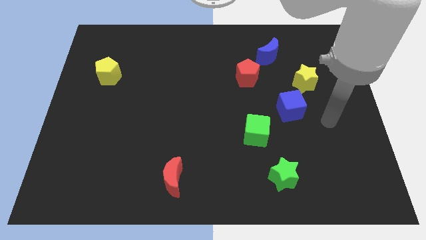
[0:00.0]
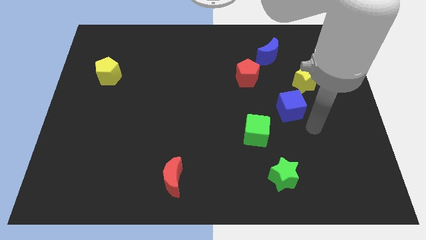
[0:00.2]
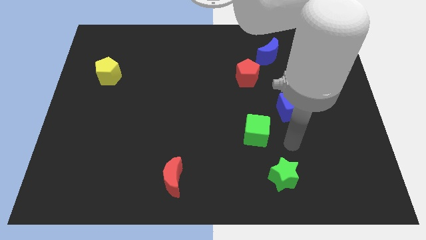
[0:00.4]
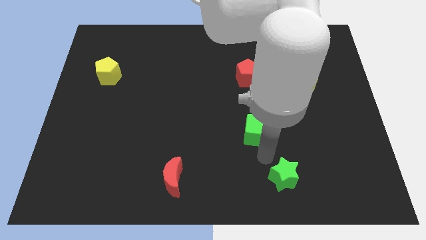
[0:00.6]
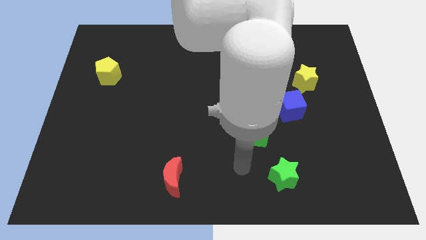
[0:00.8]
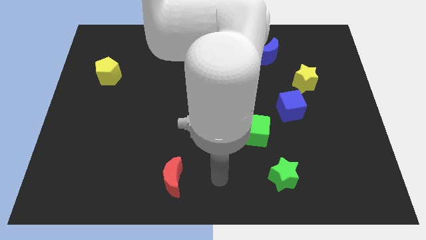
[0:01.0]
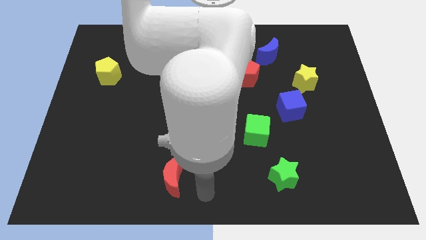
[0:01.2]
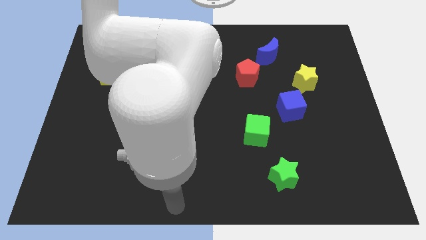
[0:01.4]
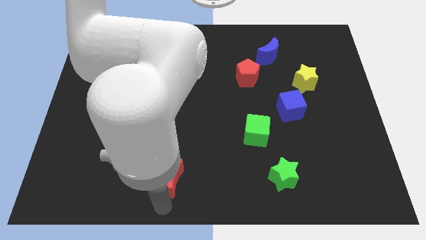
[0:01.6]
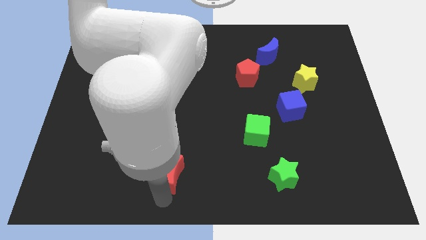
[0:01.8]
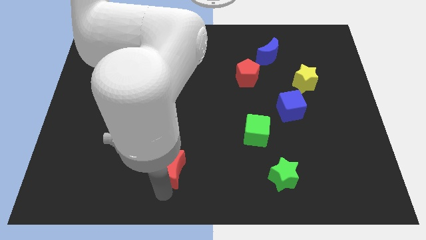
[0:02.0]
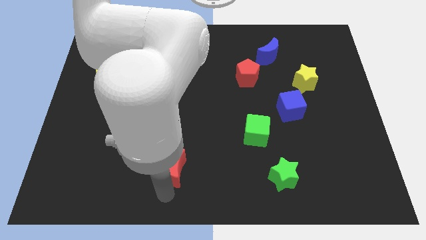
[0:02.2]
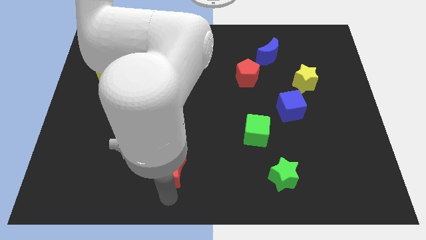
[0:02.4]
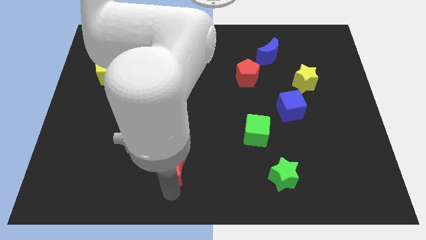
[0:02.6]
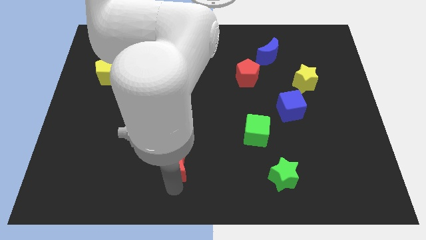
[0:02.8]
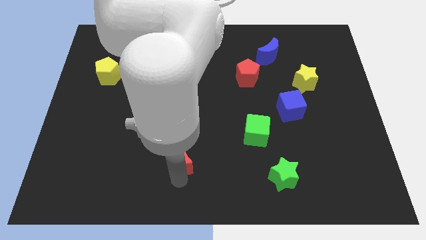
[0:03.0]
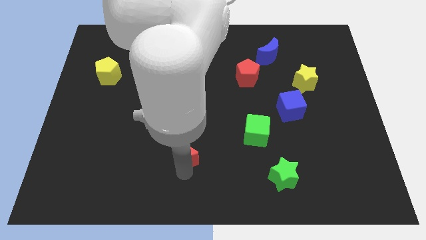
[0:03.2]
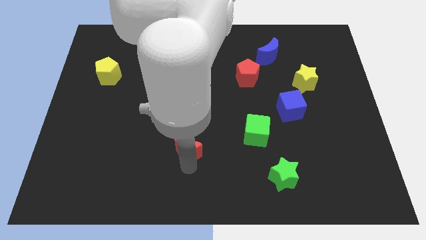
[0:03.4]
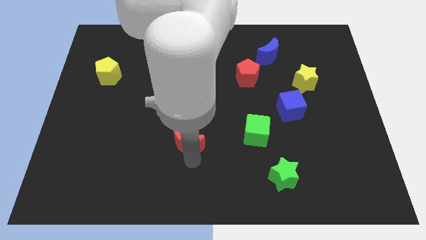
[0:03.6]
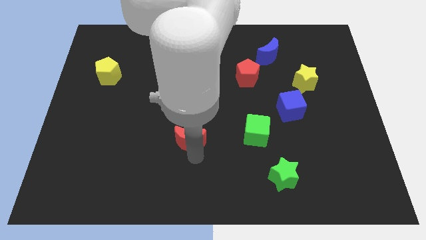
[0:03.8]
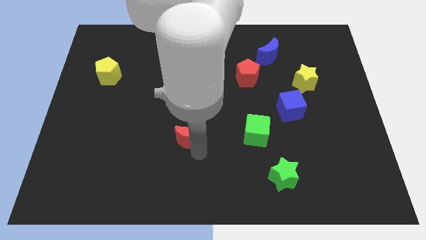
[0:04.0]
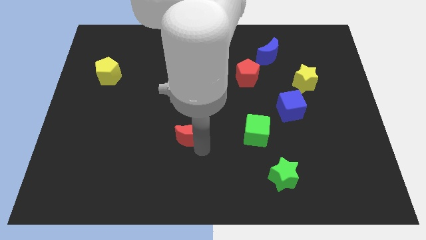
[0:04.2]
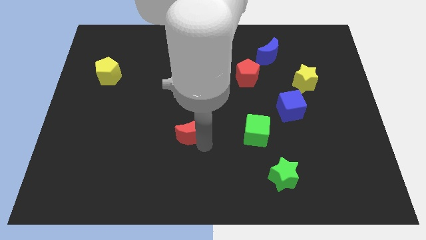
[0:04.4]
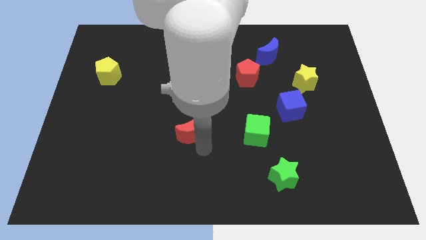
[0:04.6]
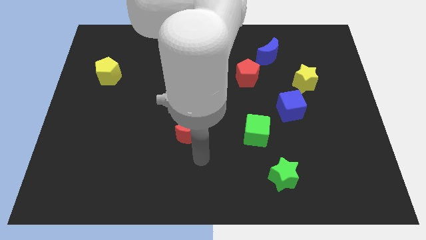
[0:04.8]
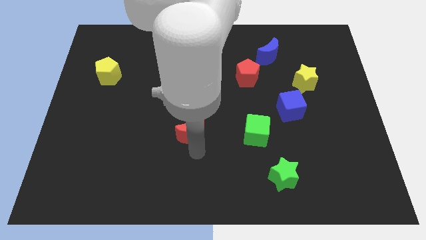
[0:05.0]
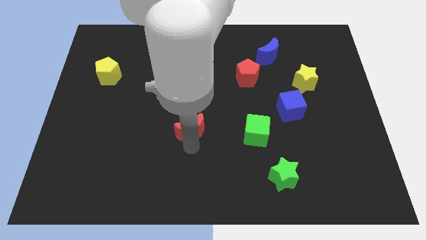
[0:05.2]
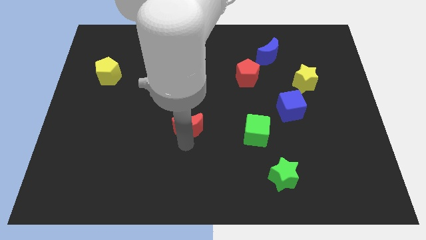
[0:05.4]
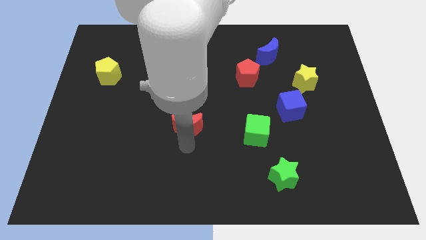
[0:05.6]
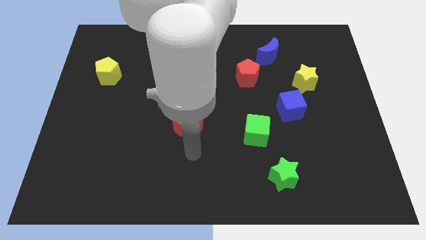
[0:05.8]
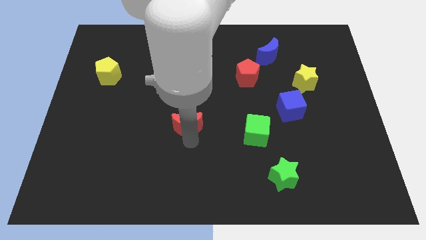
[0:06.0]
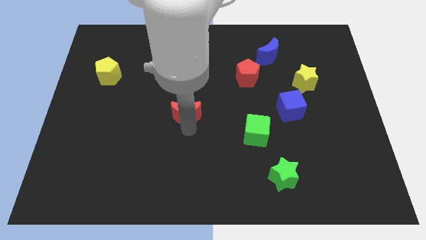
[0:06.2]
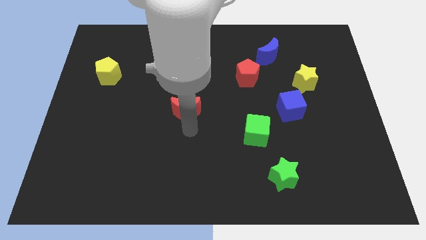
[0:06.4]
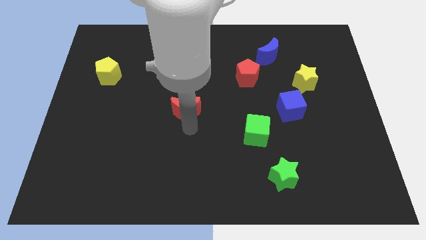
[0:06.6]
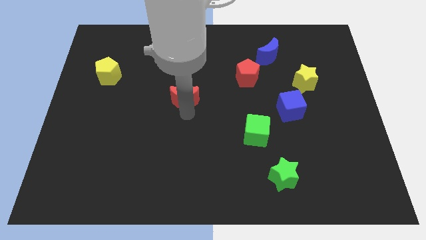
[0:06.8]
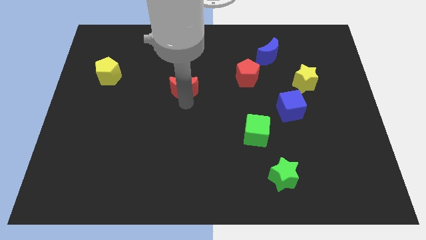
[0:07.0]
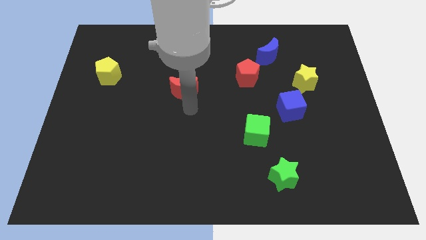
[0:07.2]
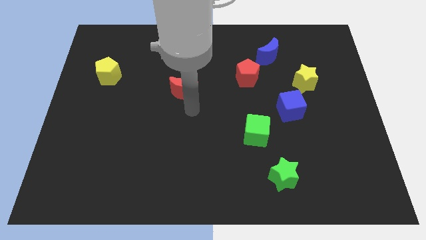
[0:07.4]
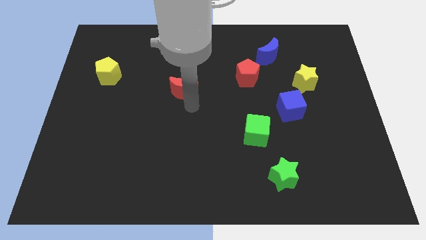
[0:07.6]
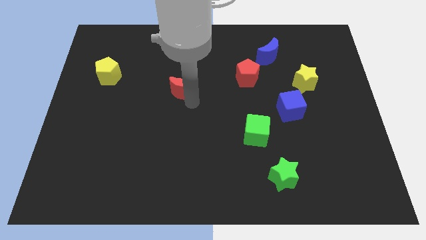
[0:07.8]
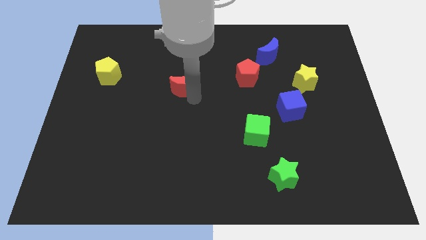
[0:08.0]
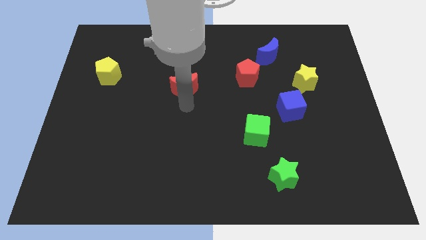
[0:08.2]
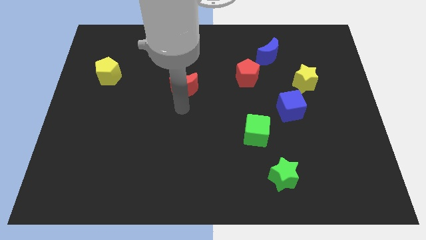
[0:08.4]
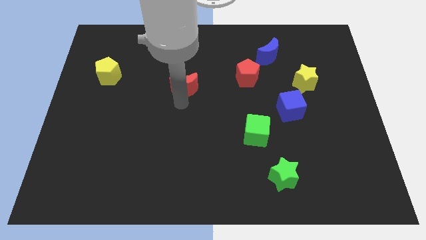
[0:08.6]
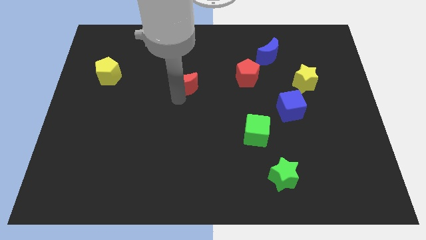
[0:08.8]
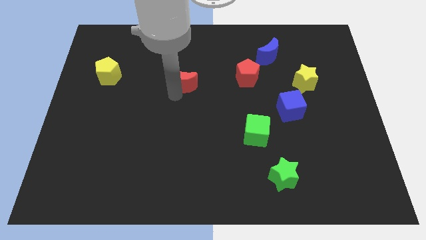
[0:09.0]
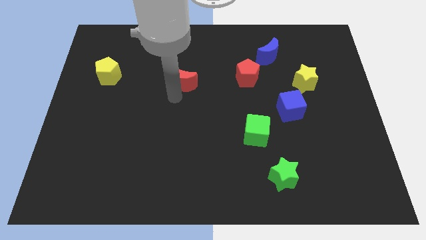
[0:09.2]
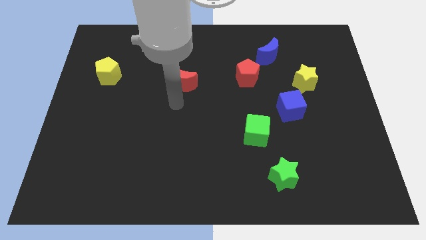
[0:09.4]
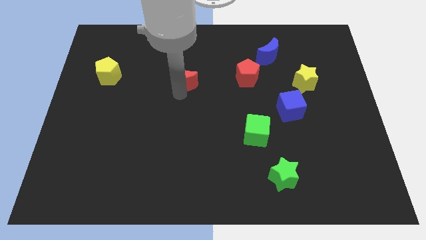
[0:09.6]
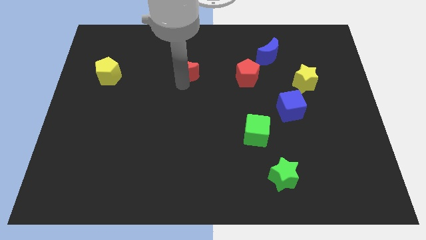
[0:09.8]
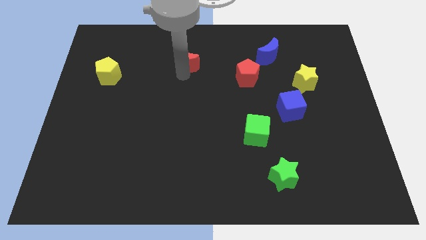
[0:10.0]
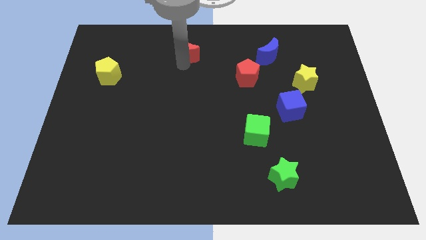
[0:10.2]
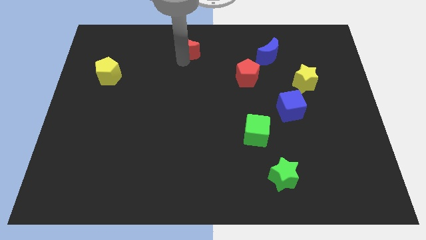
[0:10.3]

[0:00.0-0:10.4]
push the red moon to the top
